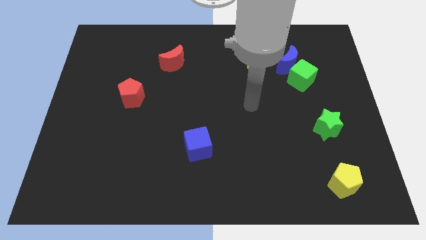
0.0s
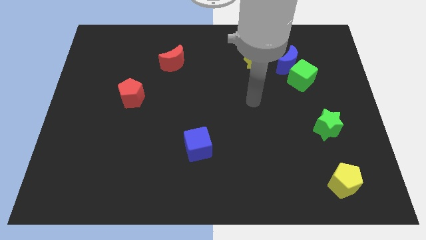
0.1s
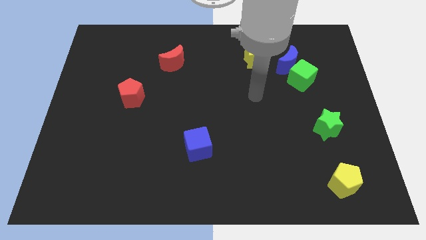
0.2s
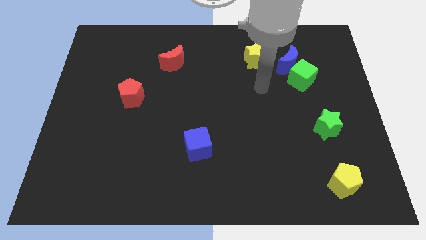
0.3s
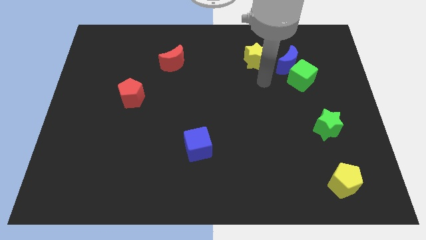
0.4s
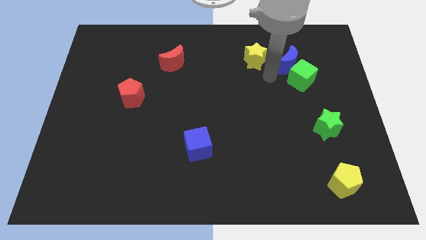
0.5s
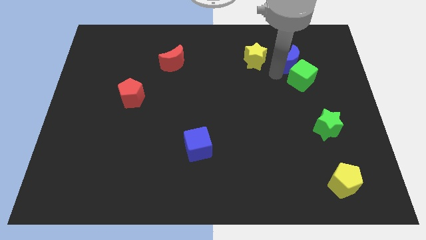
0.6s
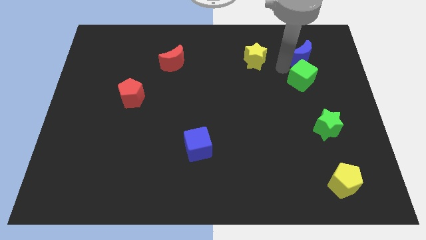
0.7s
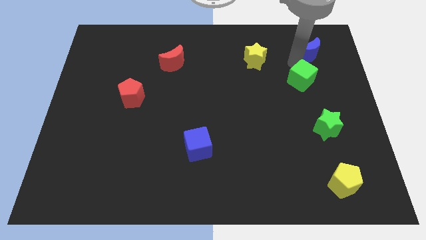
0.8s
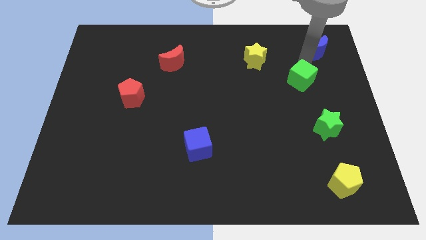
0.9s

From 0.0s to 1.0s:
pull the green cube apart from the blue moon

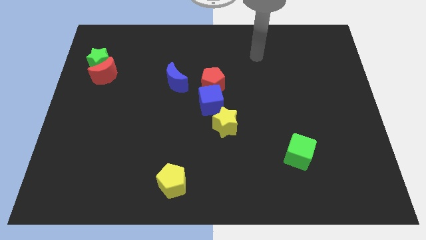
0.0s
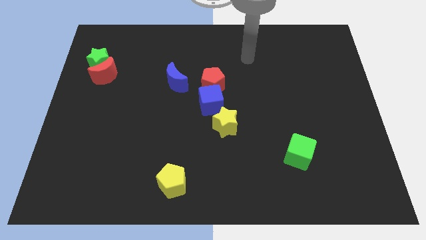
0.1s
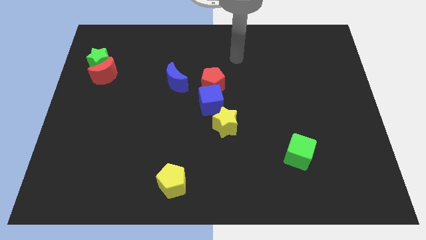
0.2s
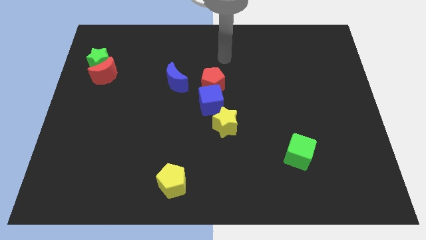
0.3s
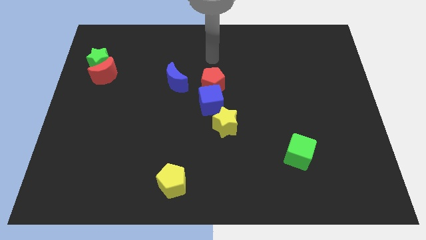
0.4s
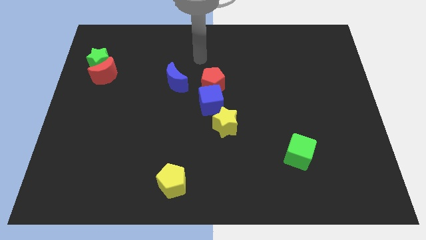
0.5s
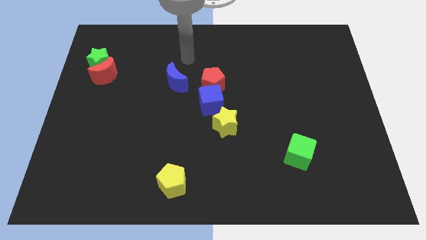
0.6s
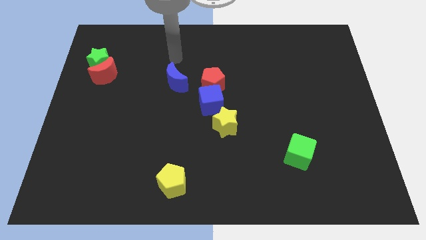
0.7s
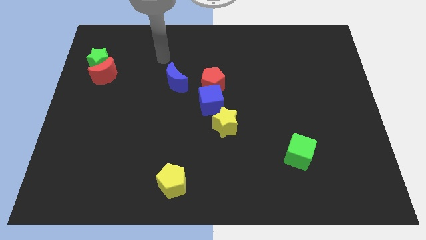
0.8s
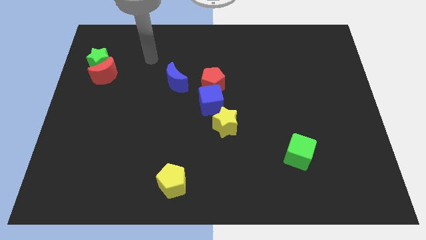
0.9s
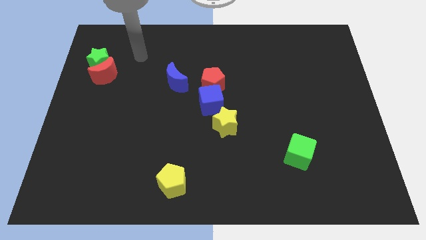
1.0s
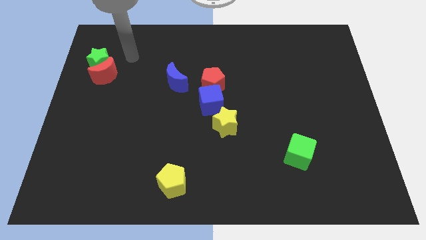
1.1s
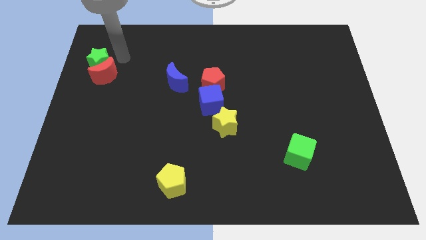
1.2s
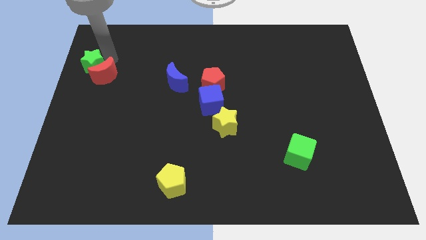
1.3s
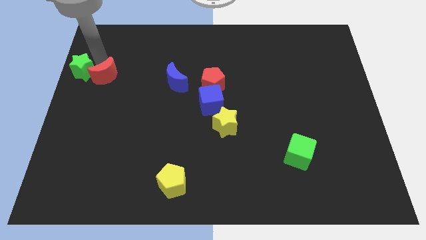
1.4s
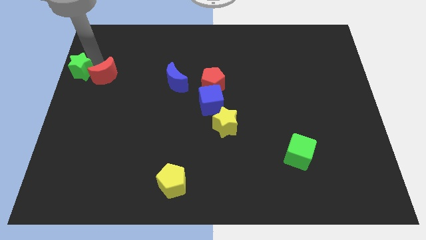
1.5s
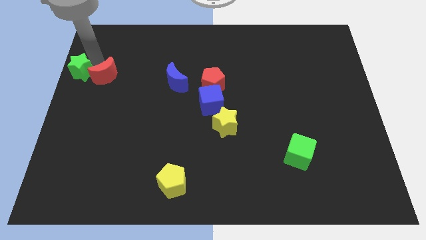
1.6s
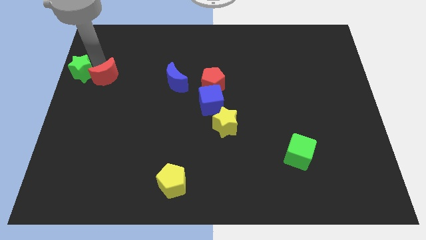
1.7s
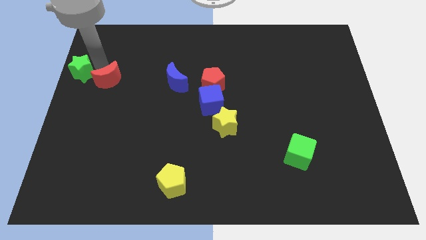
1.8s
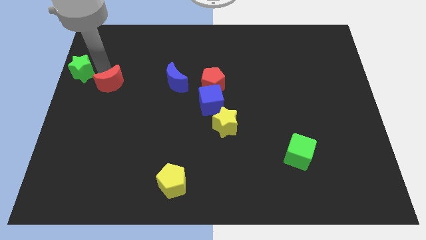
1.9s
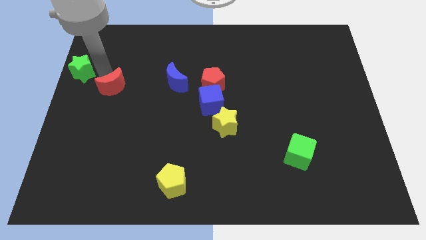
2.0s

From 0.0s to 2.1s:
pull the red moon apart from the green star

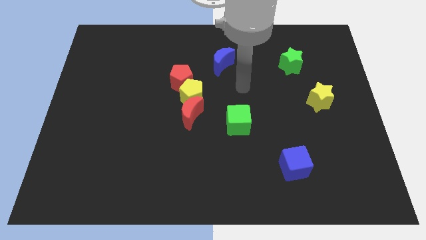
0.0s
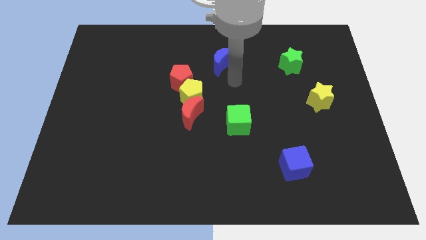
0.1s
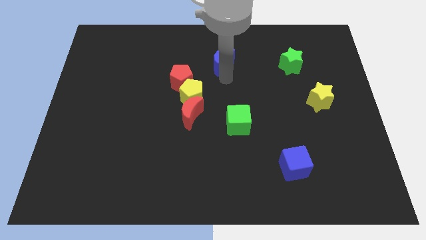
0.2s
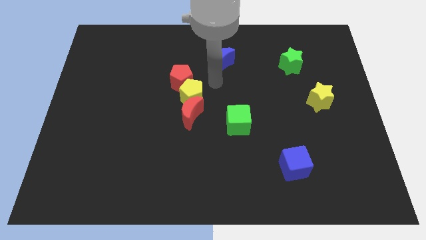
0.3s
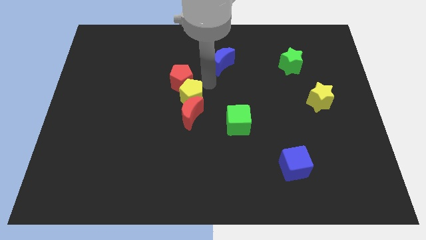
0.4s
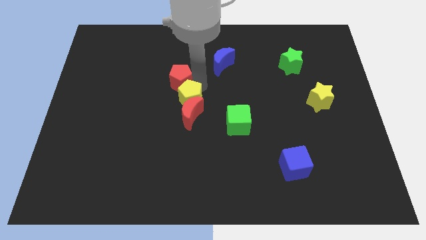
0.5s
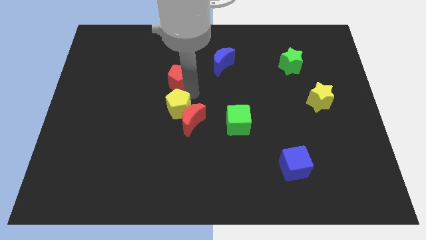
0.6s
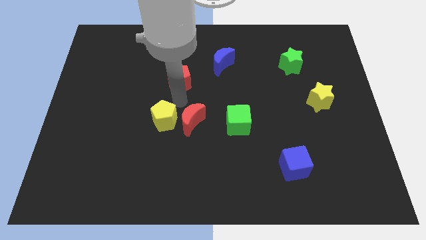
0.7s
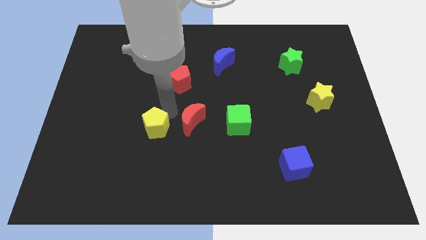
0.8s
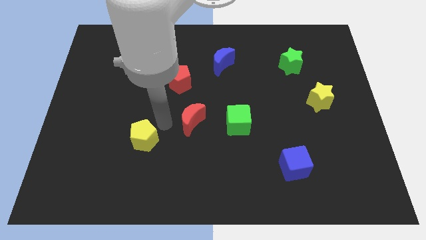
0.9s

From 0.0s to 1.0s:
separate the red moon from the yellow pentagon

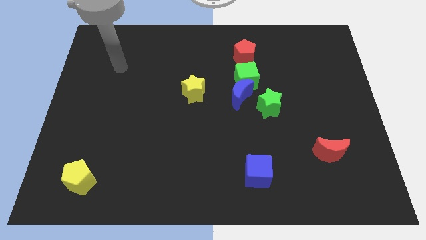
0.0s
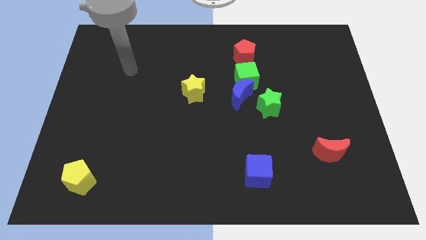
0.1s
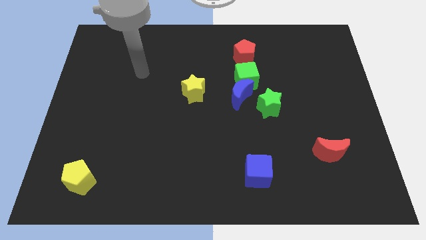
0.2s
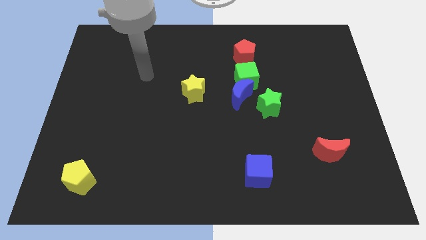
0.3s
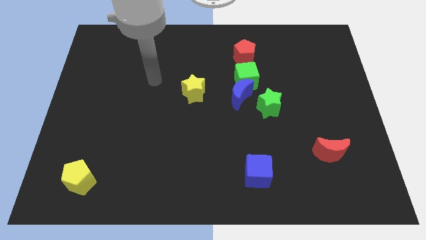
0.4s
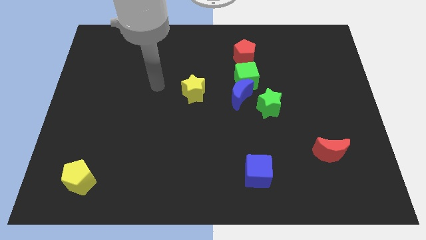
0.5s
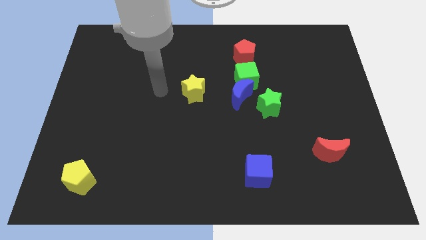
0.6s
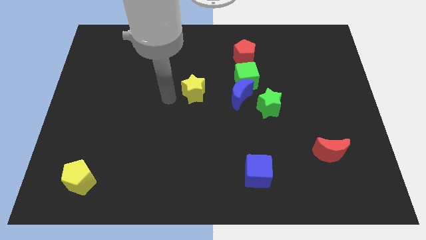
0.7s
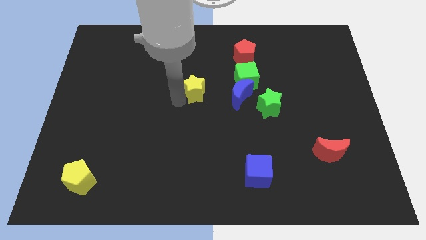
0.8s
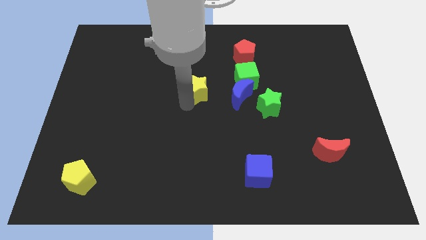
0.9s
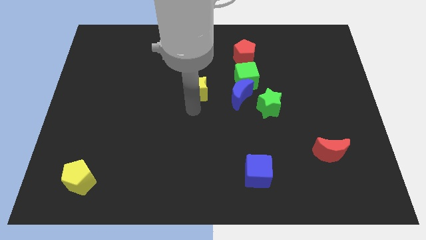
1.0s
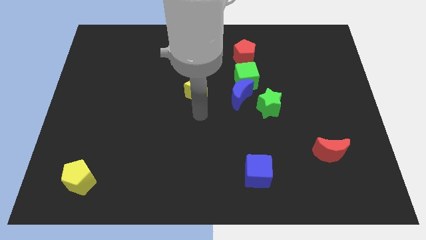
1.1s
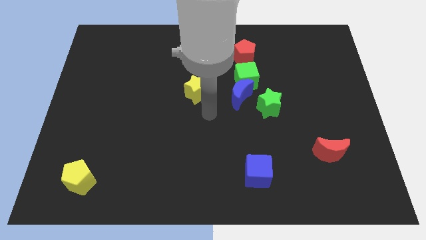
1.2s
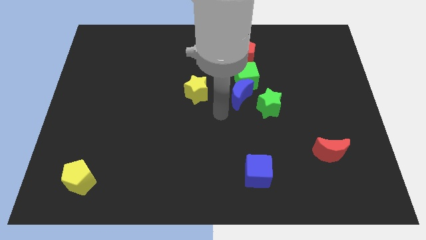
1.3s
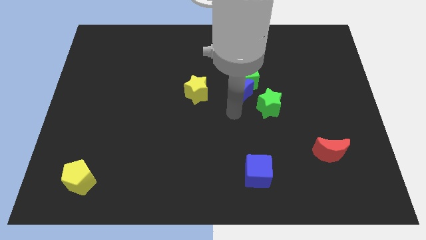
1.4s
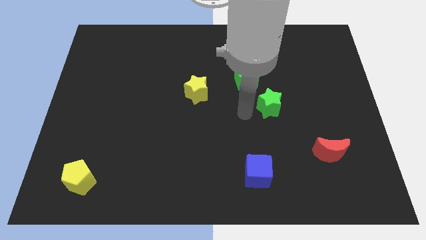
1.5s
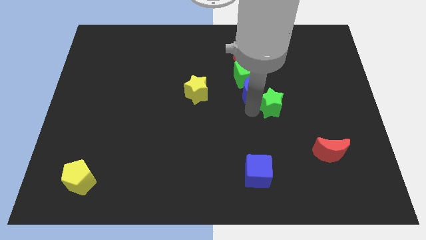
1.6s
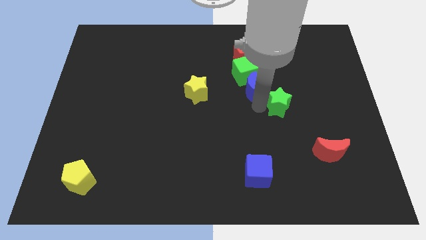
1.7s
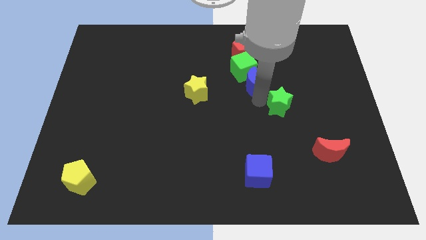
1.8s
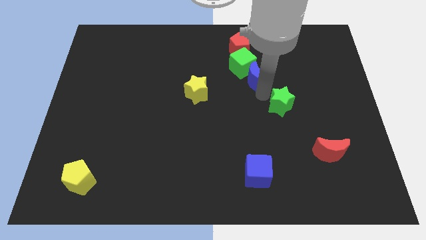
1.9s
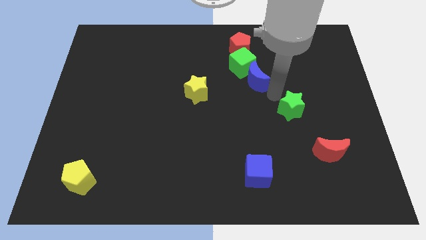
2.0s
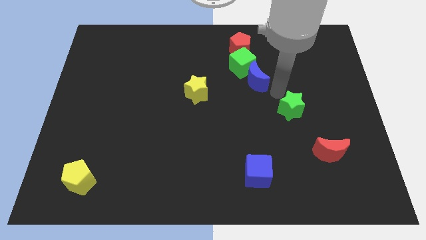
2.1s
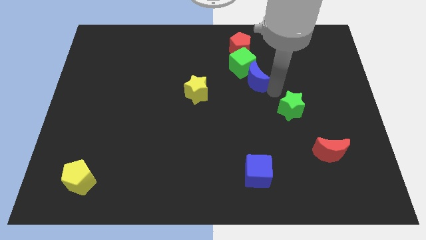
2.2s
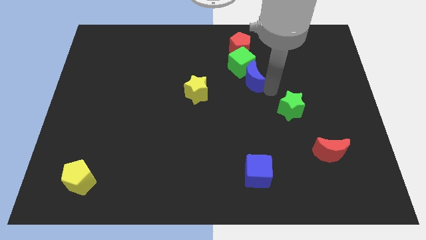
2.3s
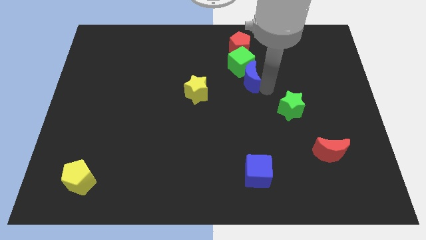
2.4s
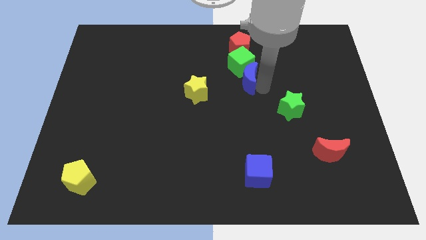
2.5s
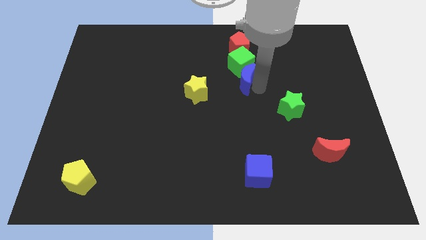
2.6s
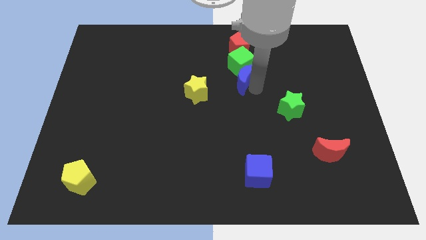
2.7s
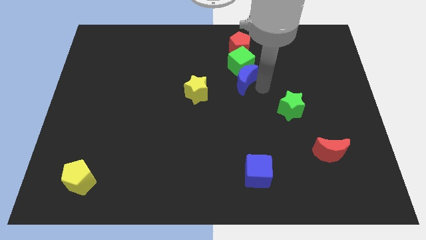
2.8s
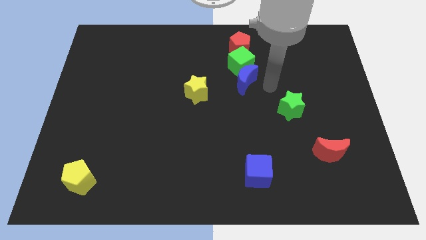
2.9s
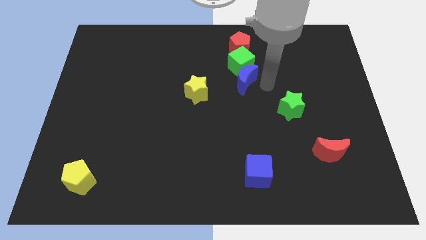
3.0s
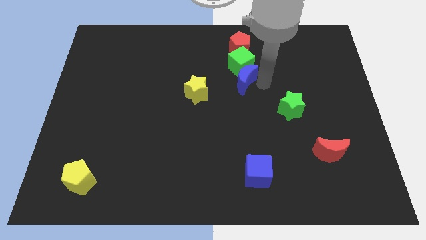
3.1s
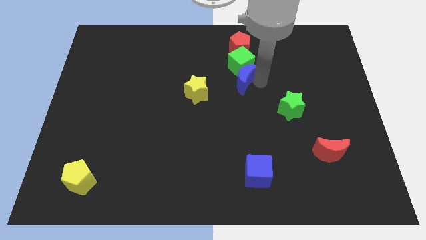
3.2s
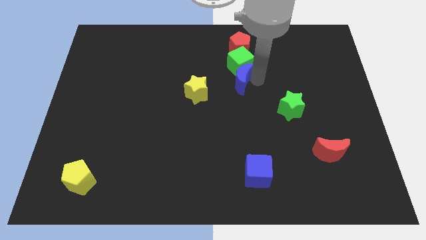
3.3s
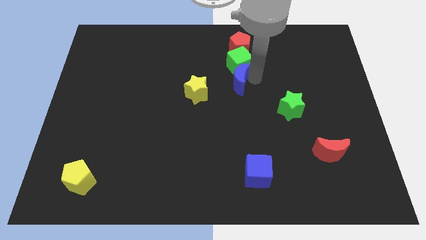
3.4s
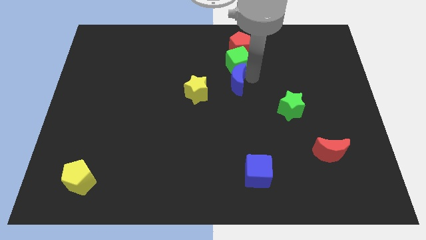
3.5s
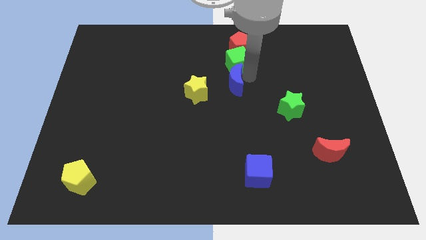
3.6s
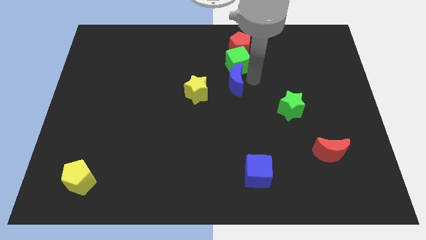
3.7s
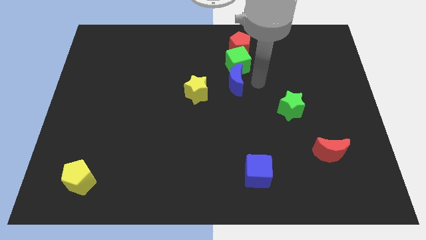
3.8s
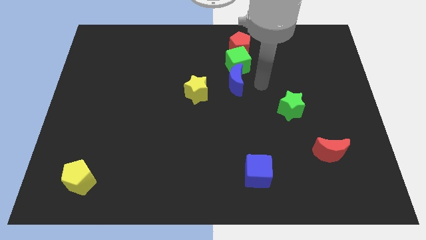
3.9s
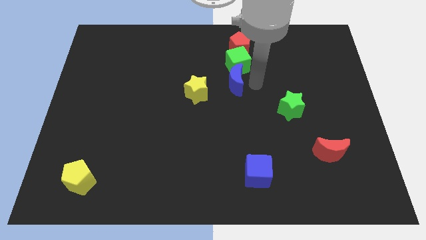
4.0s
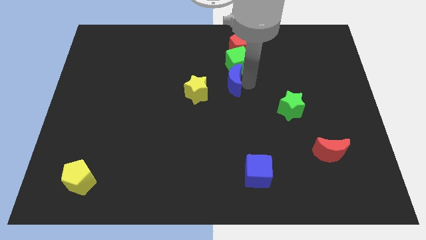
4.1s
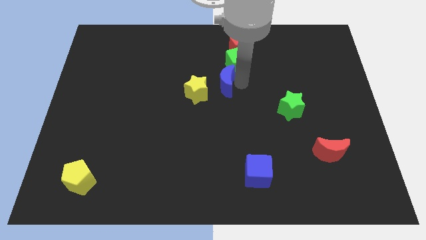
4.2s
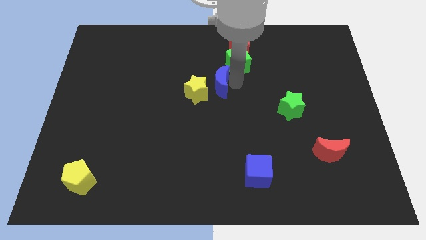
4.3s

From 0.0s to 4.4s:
move the blue moon away from the green cube and green star

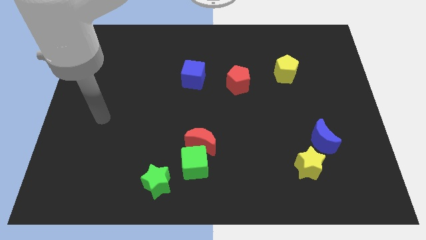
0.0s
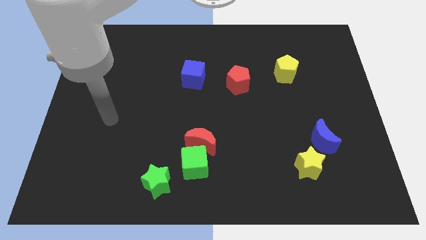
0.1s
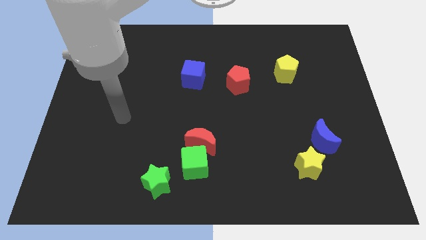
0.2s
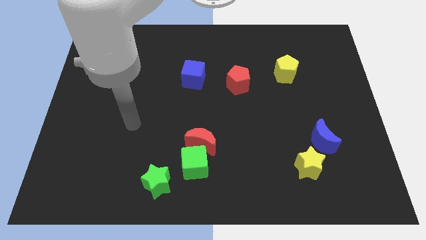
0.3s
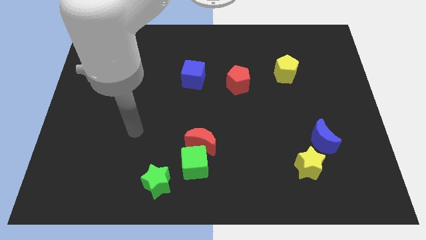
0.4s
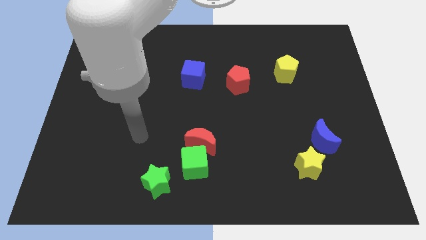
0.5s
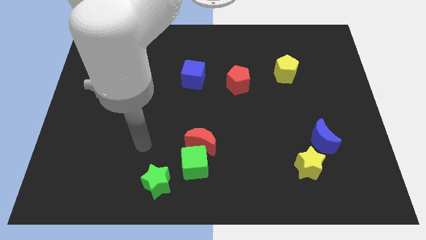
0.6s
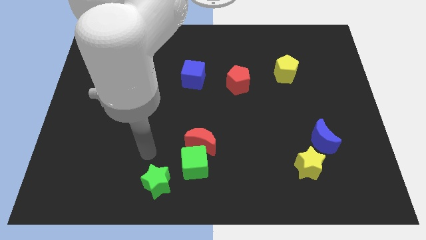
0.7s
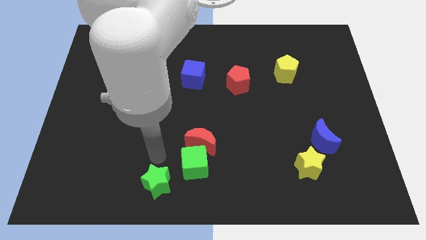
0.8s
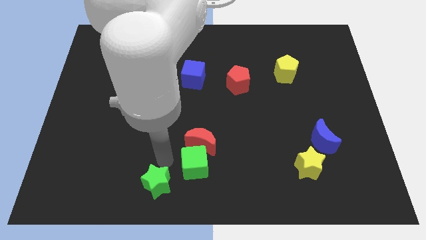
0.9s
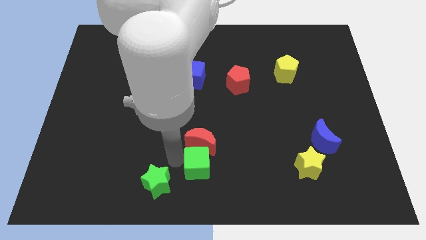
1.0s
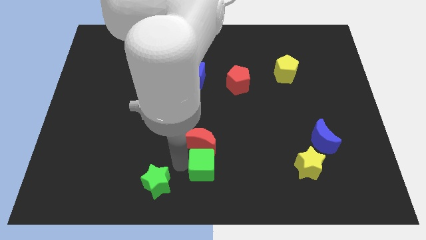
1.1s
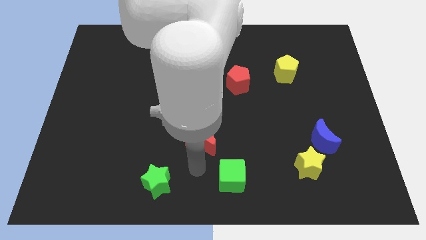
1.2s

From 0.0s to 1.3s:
pull the red moon apart from the green cube
